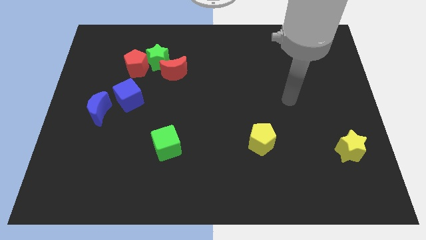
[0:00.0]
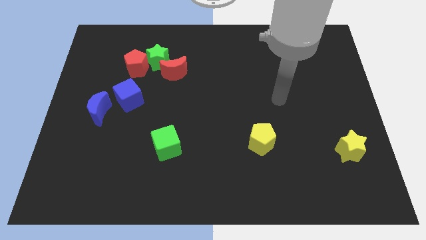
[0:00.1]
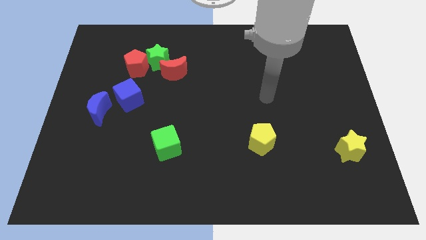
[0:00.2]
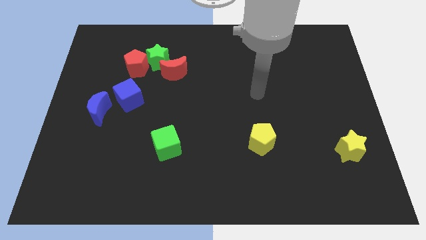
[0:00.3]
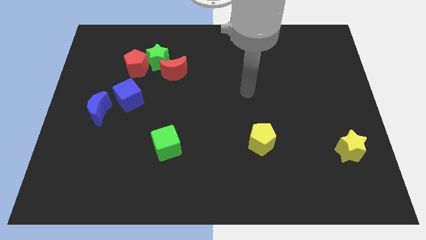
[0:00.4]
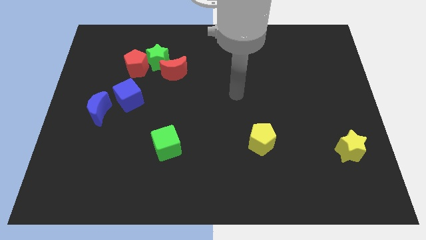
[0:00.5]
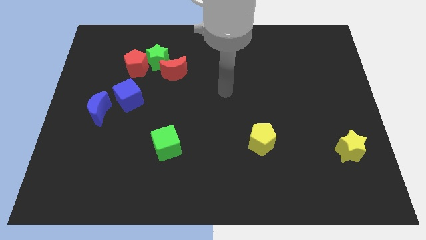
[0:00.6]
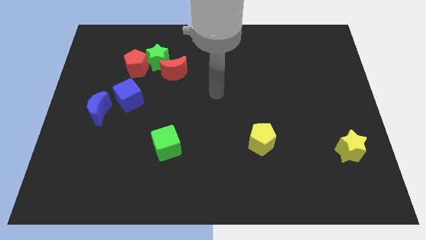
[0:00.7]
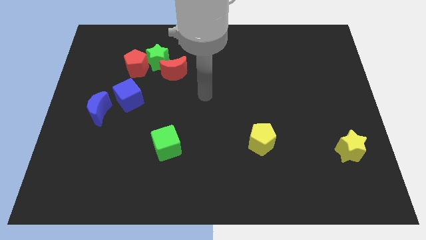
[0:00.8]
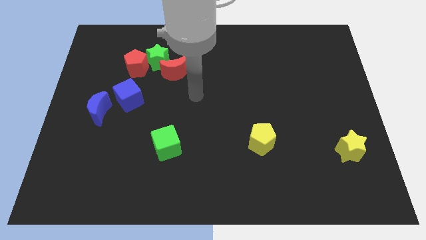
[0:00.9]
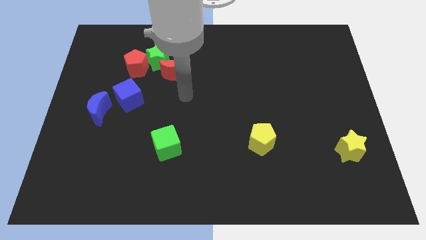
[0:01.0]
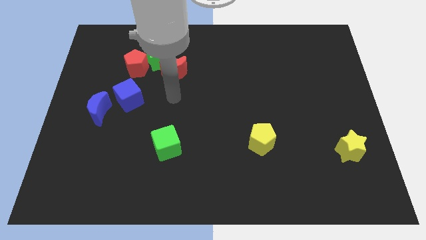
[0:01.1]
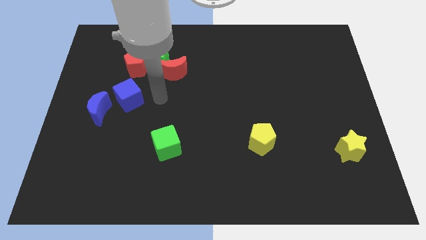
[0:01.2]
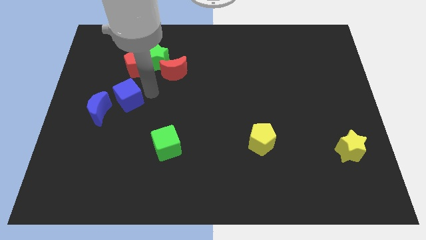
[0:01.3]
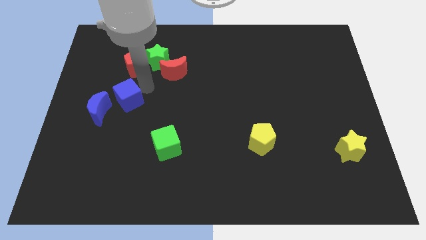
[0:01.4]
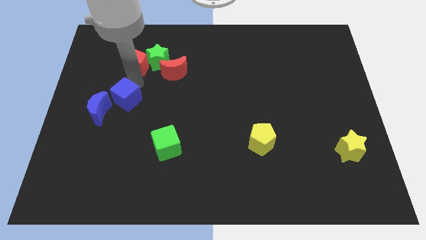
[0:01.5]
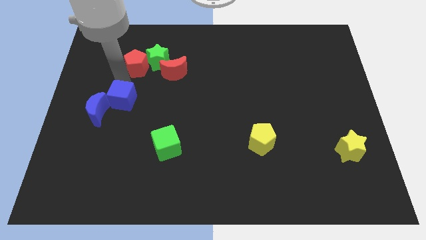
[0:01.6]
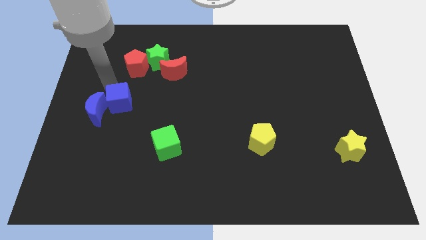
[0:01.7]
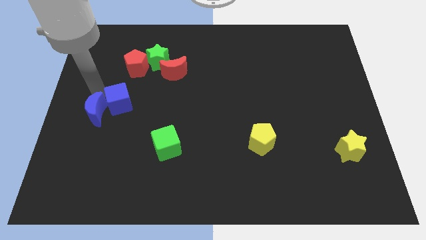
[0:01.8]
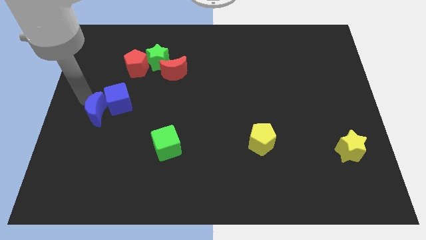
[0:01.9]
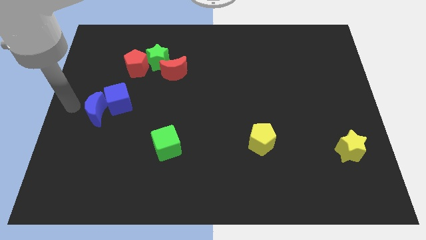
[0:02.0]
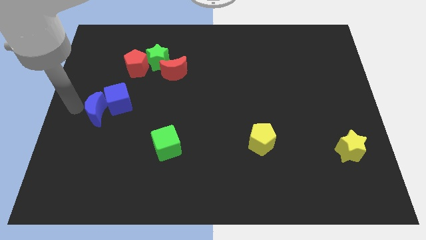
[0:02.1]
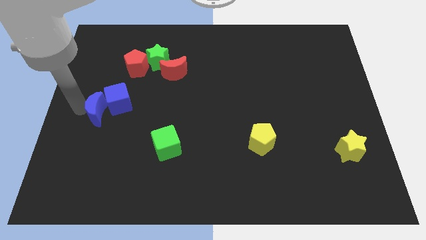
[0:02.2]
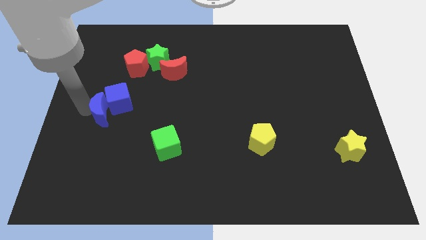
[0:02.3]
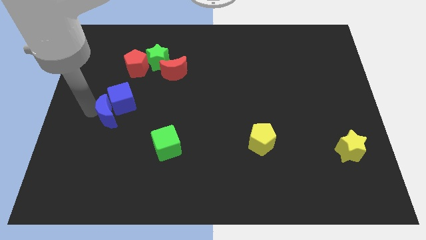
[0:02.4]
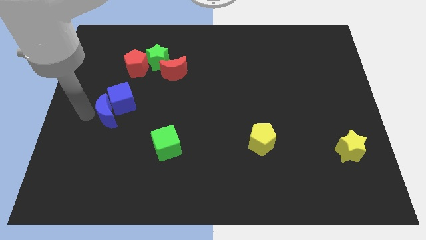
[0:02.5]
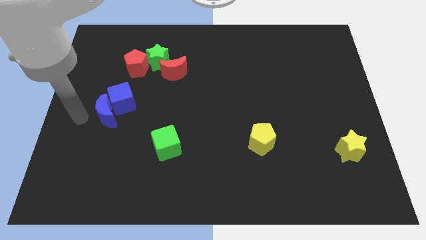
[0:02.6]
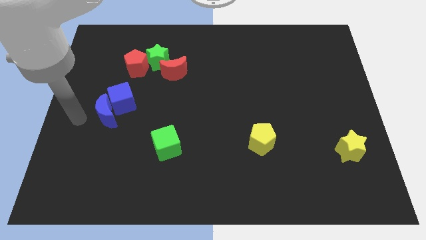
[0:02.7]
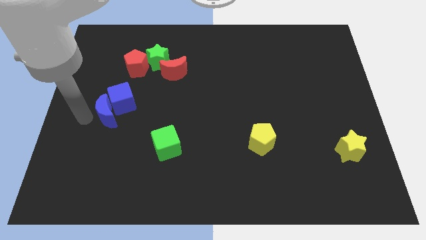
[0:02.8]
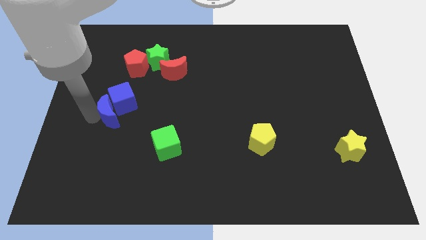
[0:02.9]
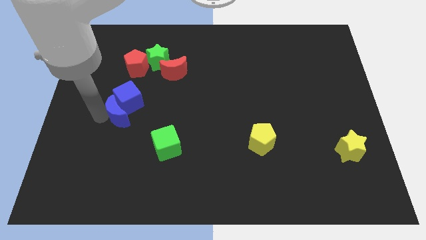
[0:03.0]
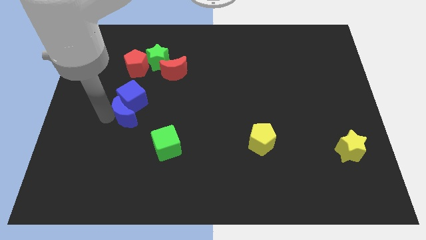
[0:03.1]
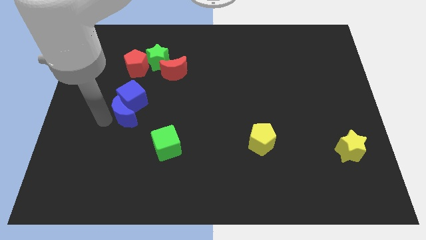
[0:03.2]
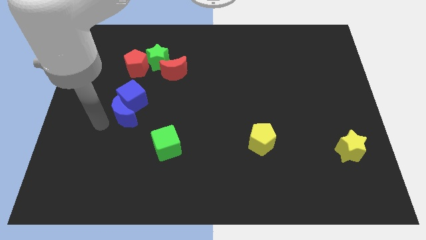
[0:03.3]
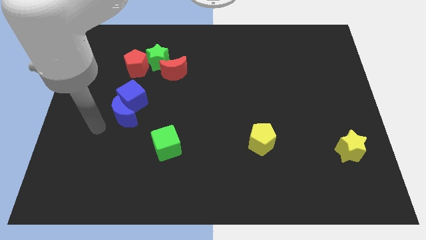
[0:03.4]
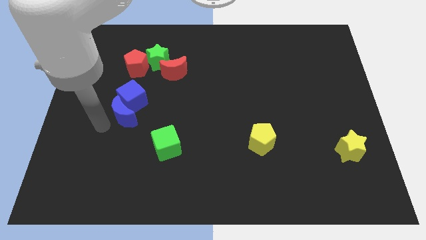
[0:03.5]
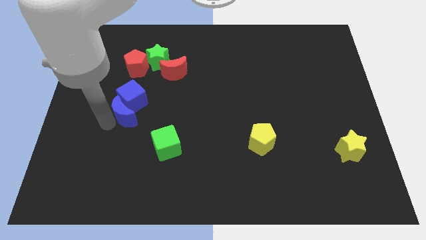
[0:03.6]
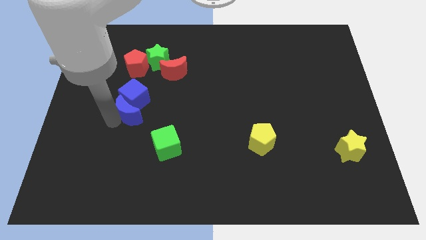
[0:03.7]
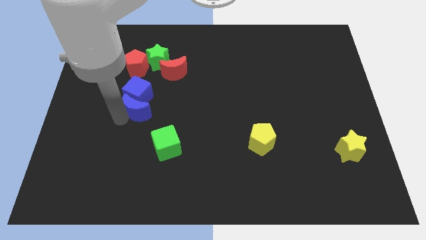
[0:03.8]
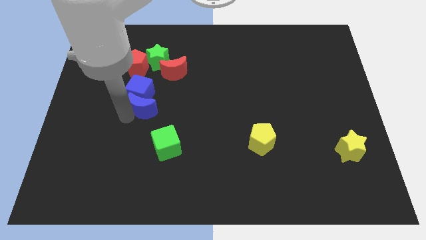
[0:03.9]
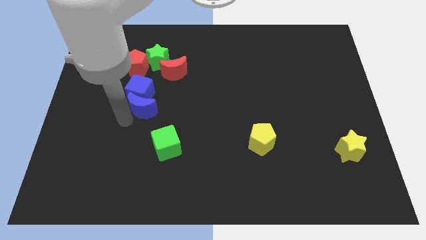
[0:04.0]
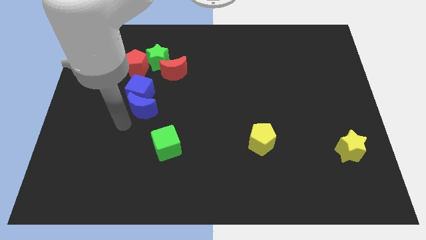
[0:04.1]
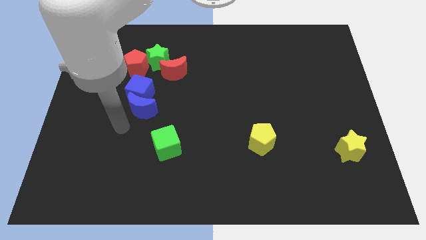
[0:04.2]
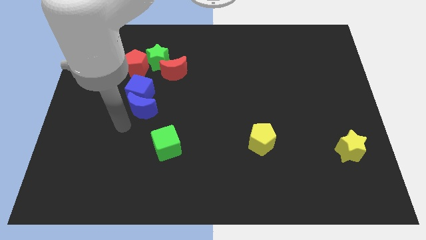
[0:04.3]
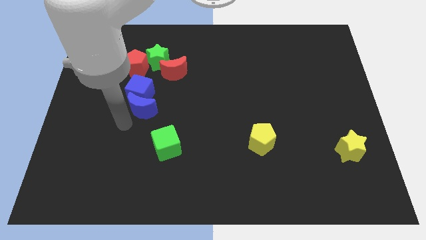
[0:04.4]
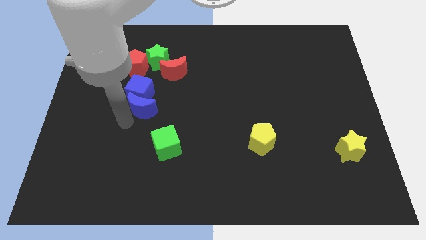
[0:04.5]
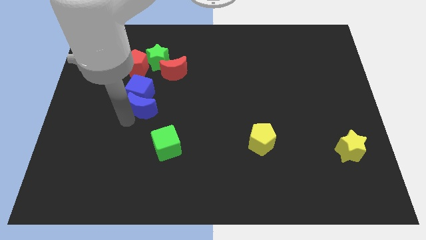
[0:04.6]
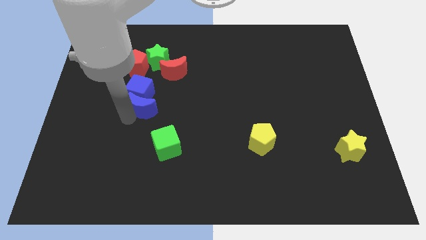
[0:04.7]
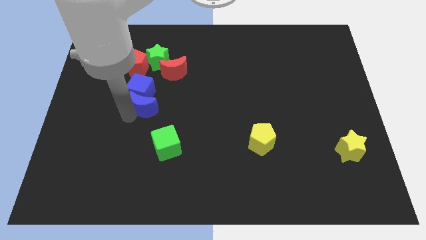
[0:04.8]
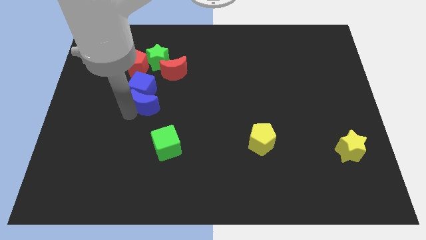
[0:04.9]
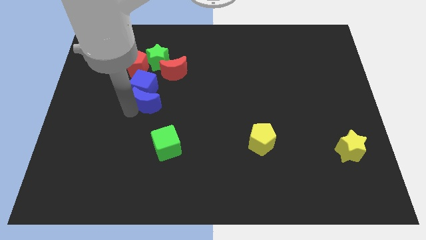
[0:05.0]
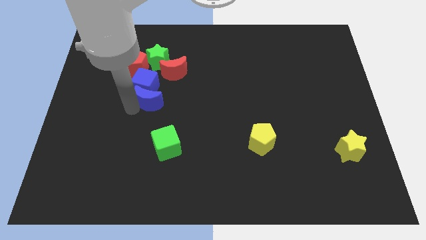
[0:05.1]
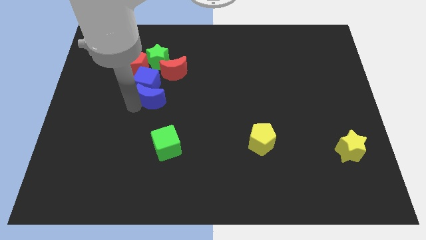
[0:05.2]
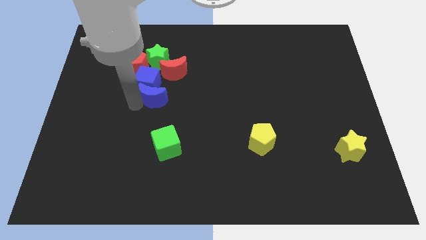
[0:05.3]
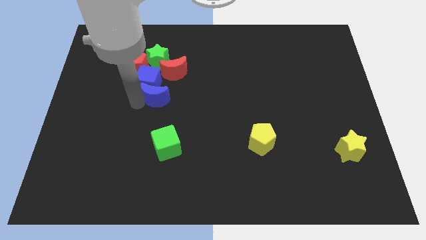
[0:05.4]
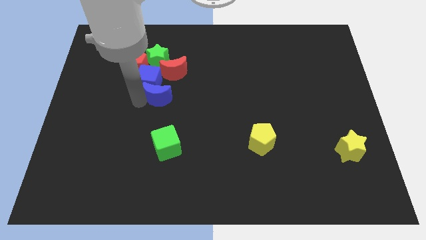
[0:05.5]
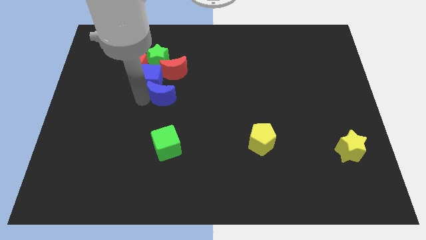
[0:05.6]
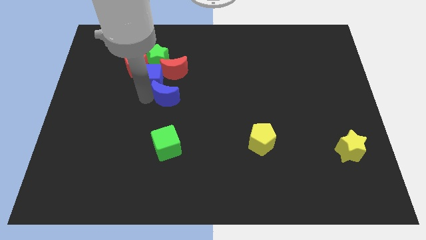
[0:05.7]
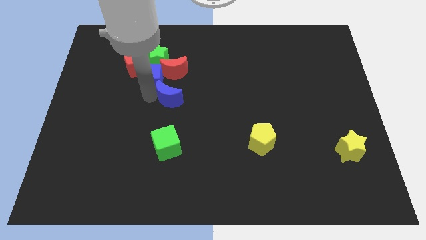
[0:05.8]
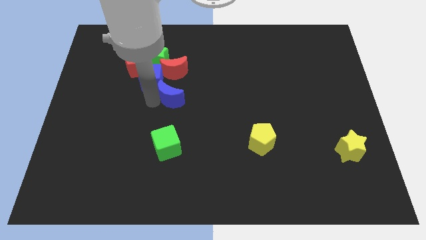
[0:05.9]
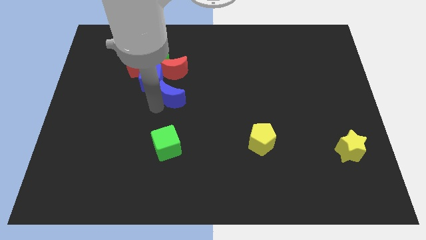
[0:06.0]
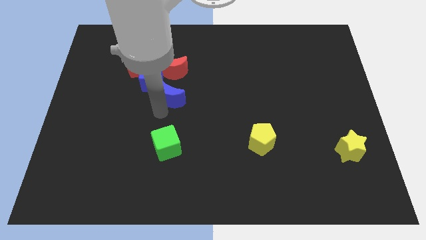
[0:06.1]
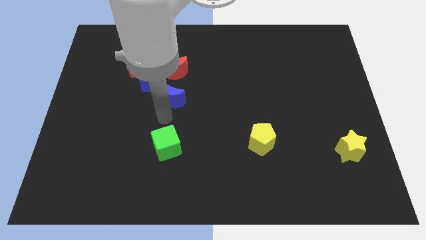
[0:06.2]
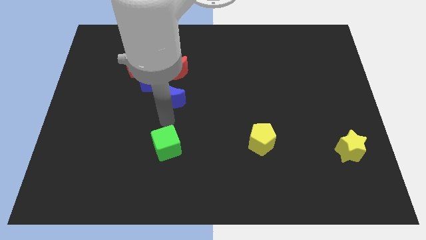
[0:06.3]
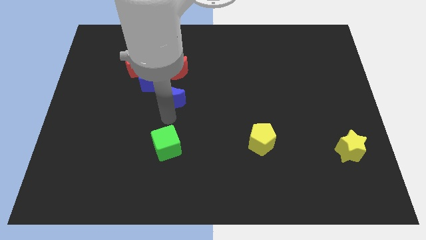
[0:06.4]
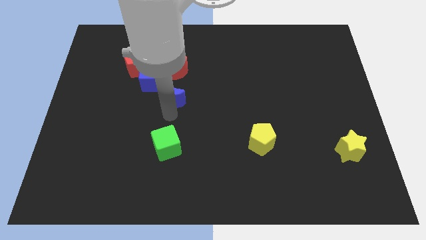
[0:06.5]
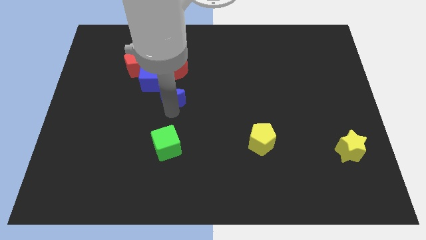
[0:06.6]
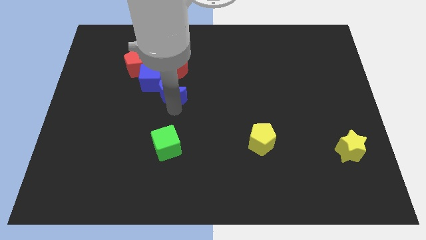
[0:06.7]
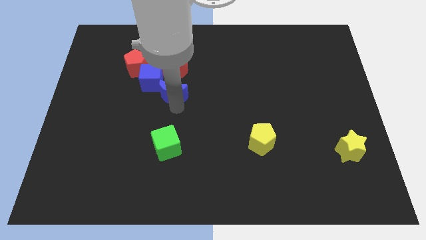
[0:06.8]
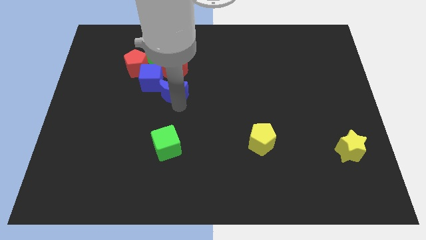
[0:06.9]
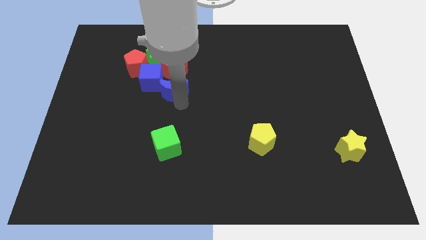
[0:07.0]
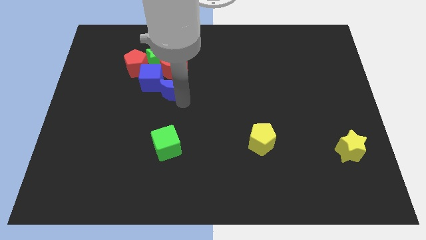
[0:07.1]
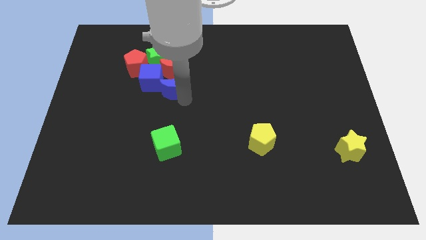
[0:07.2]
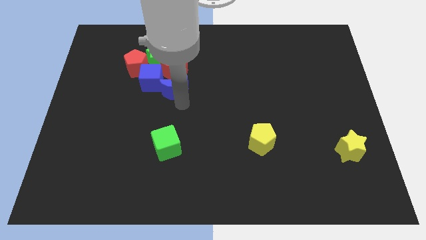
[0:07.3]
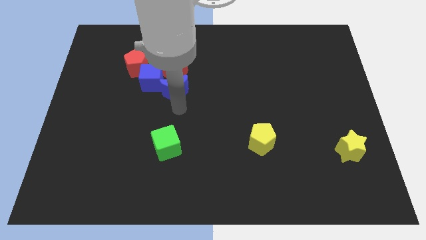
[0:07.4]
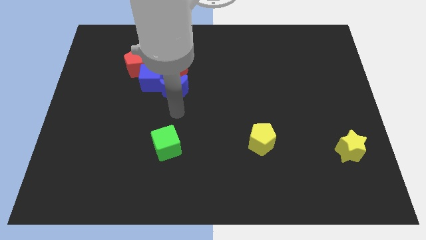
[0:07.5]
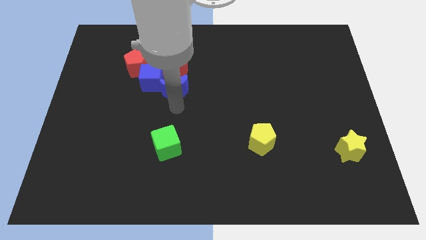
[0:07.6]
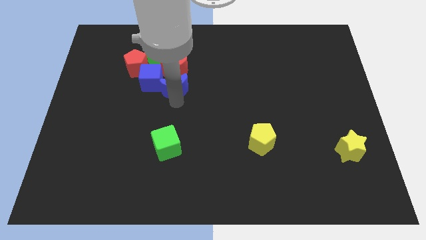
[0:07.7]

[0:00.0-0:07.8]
push the blue moon close to the red moon

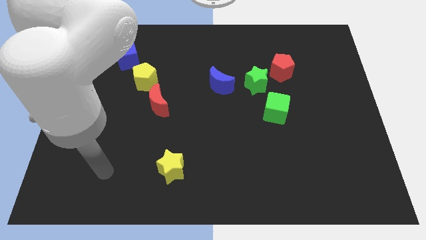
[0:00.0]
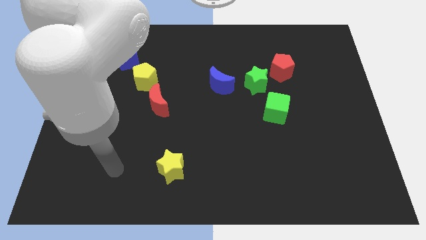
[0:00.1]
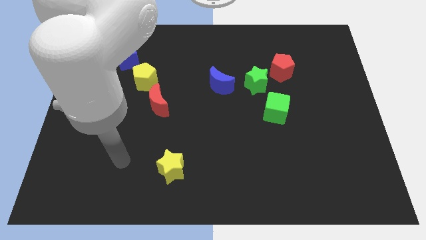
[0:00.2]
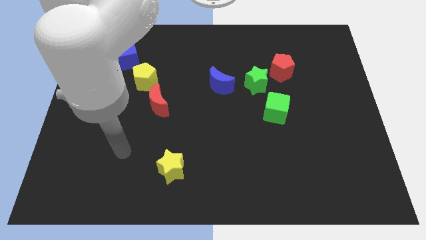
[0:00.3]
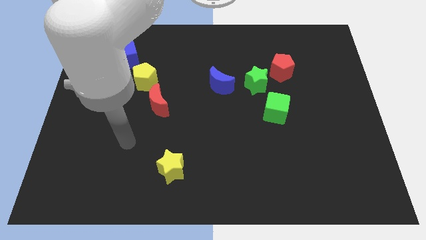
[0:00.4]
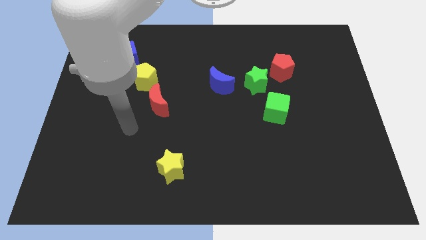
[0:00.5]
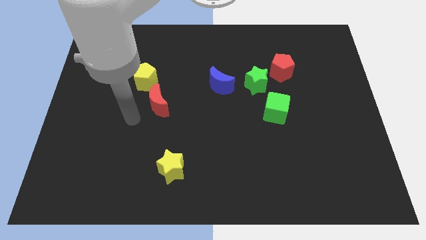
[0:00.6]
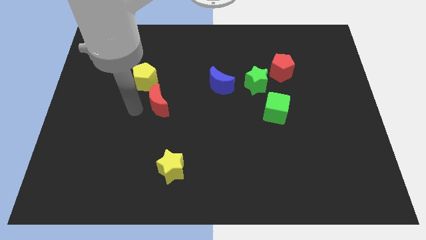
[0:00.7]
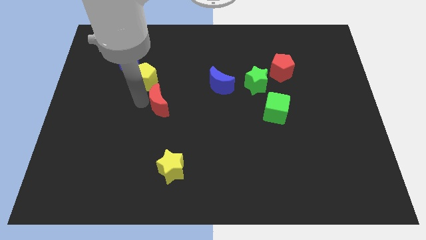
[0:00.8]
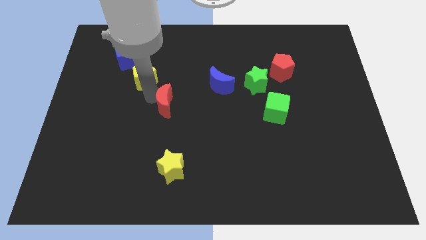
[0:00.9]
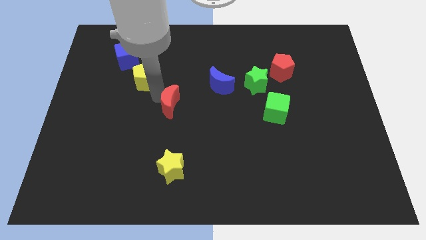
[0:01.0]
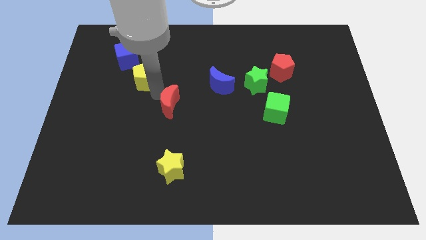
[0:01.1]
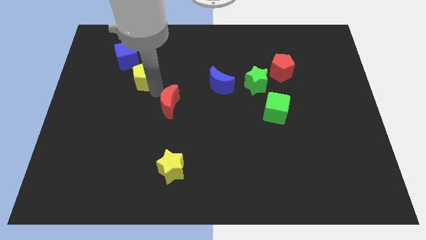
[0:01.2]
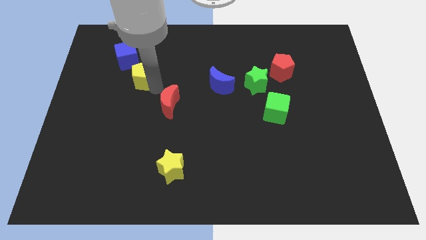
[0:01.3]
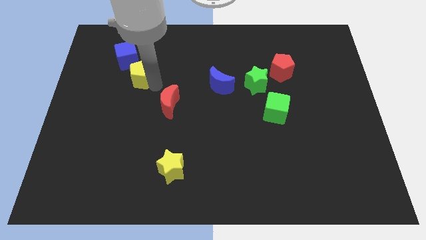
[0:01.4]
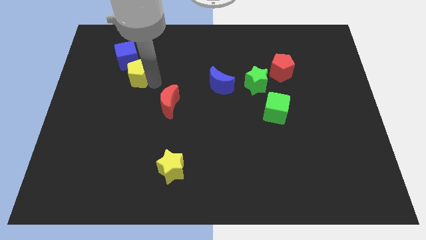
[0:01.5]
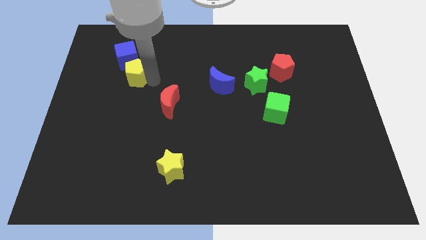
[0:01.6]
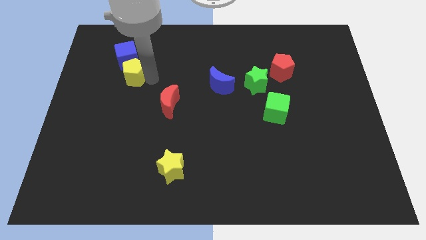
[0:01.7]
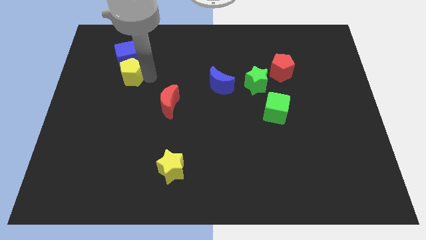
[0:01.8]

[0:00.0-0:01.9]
move the yellow pentagon to the blue cube
